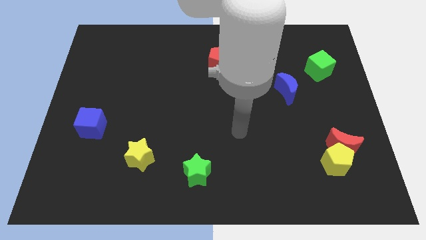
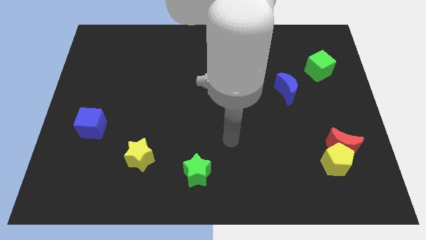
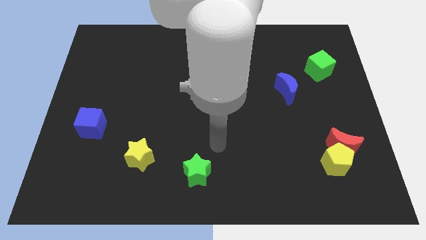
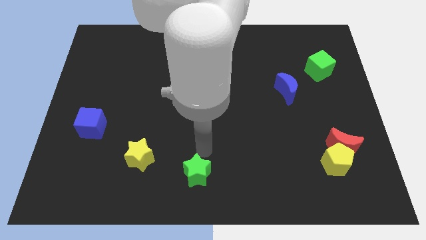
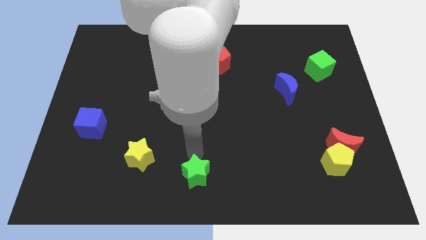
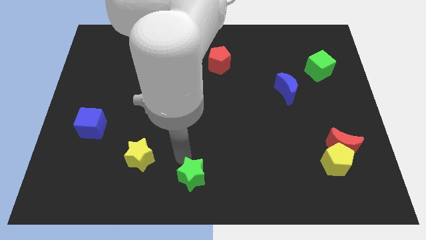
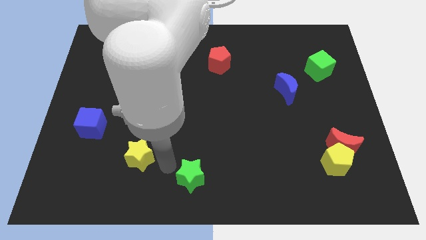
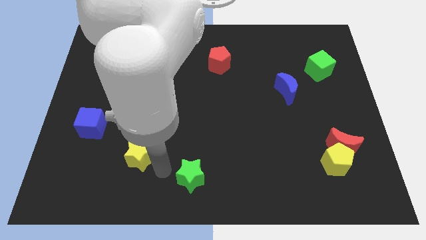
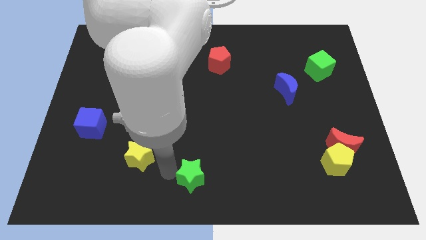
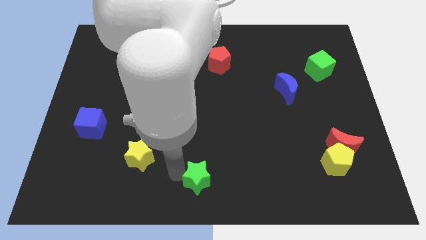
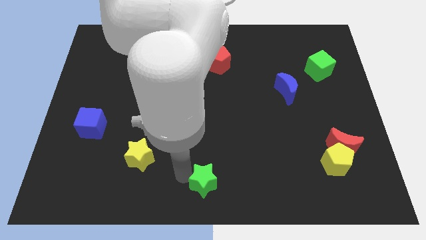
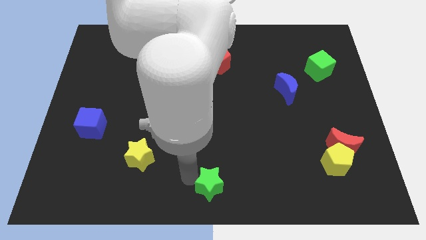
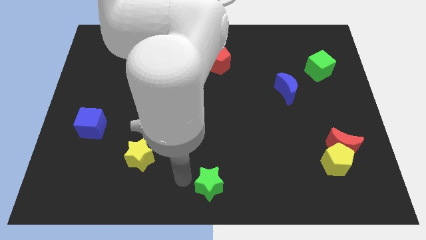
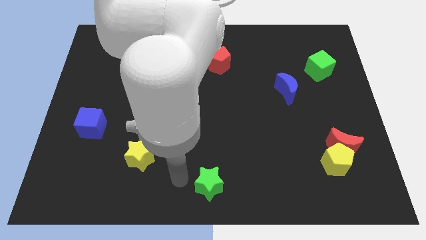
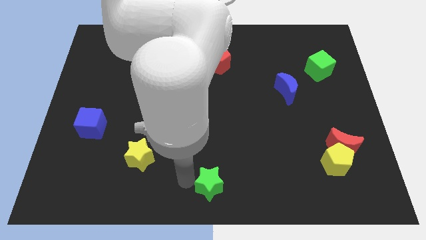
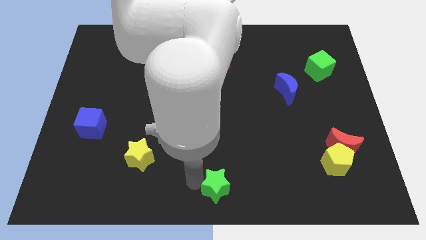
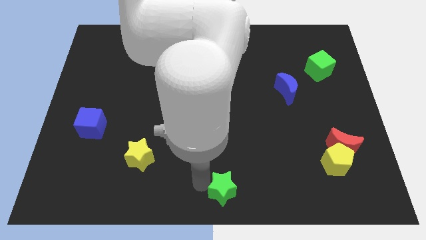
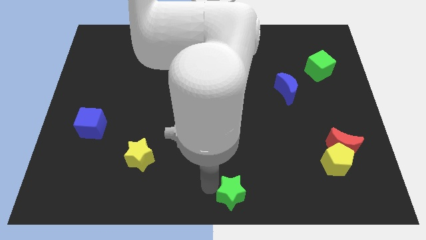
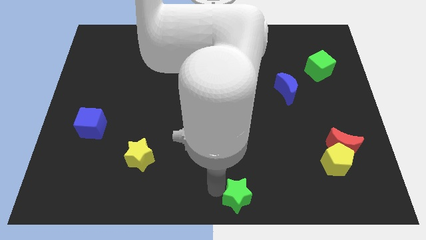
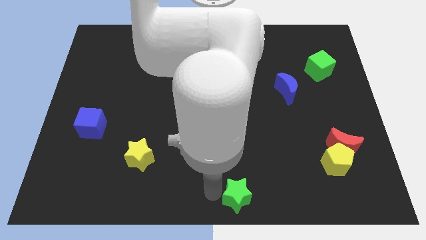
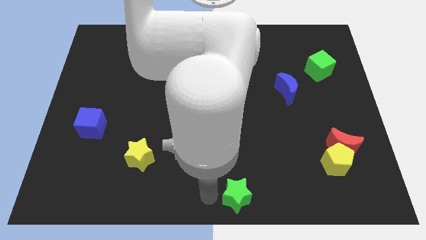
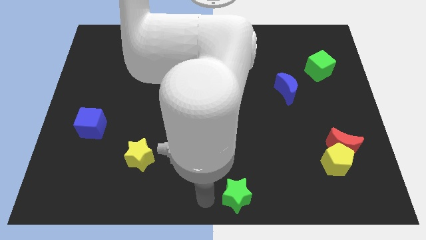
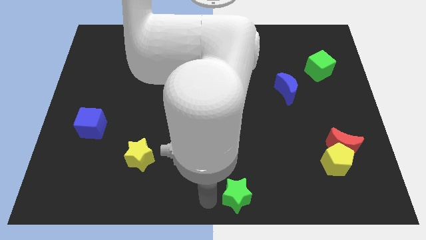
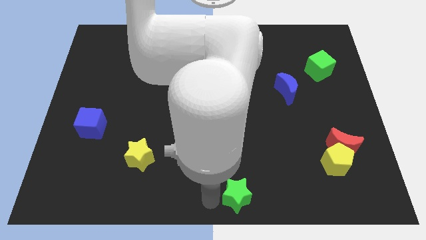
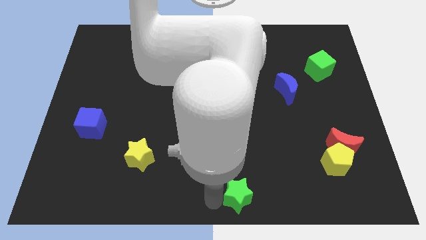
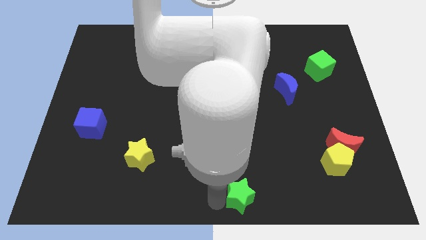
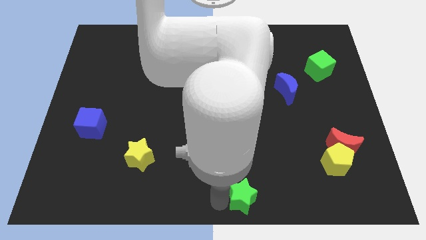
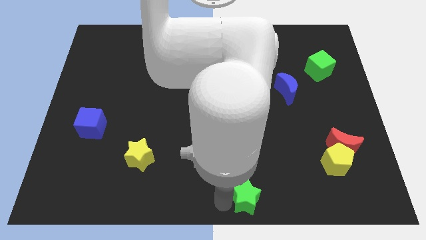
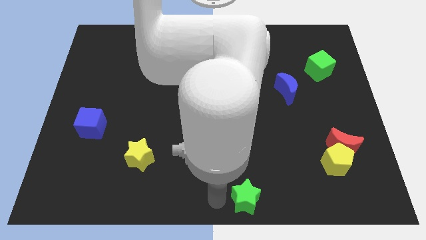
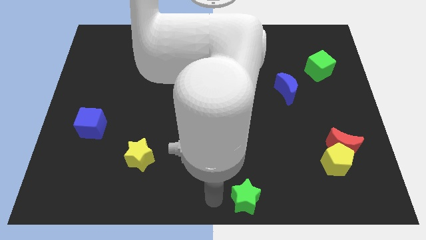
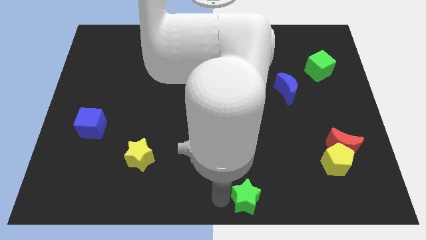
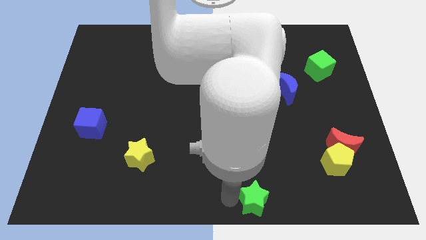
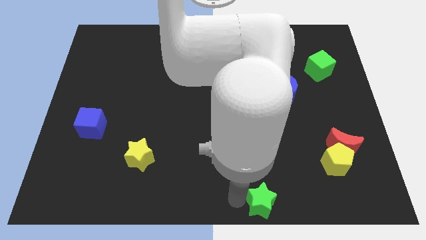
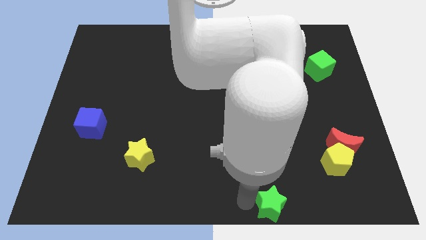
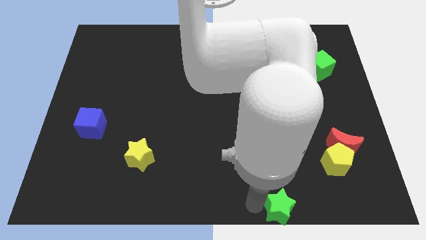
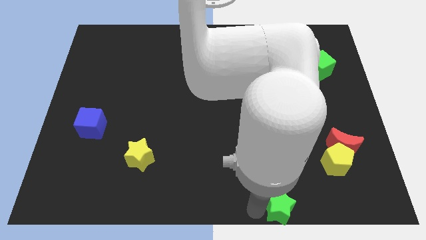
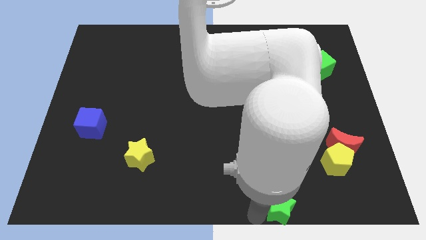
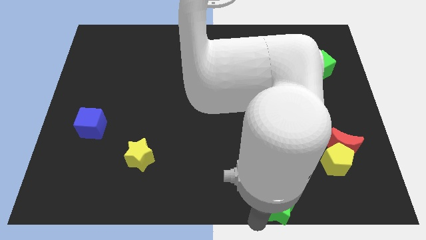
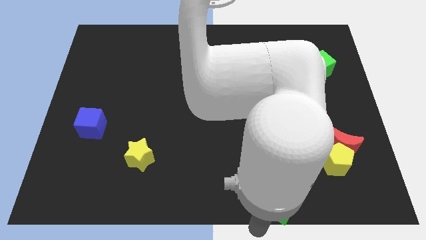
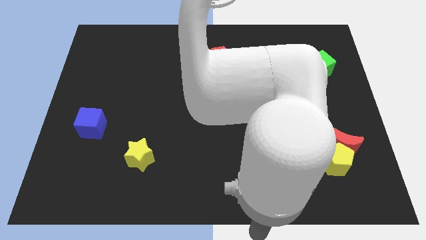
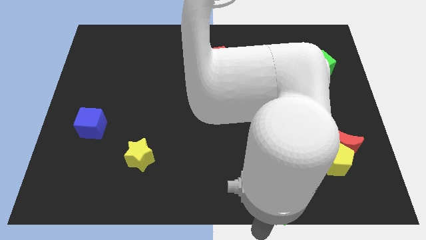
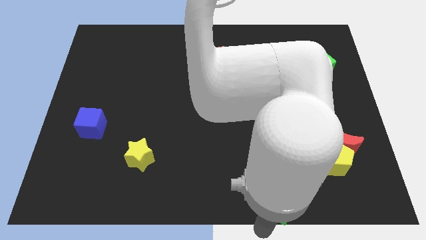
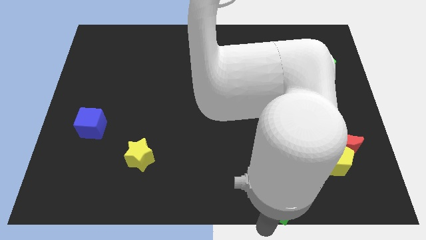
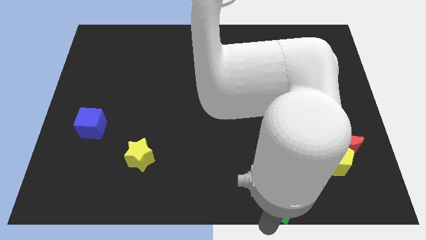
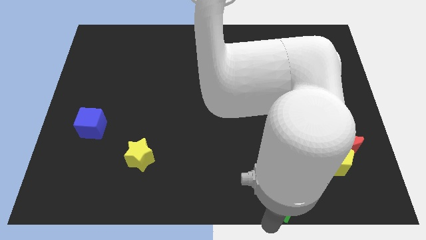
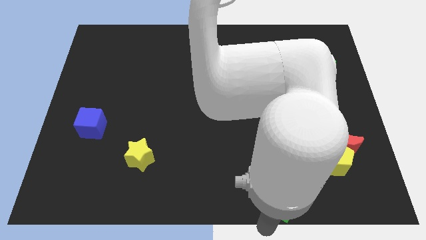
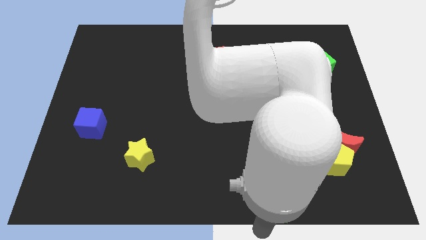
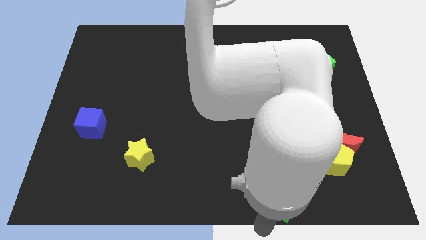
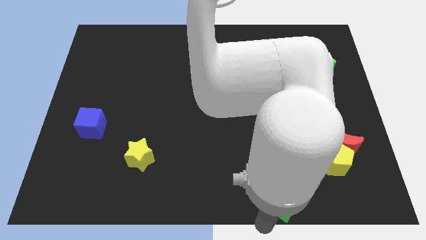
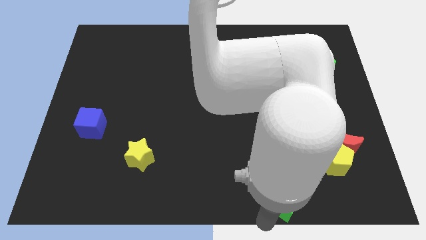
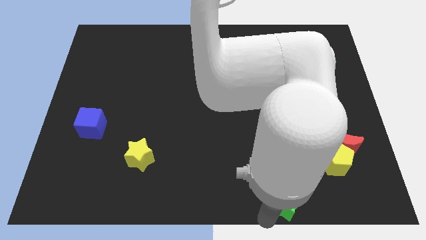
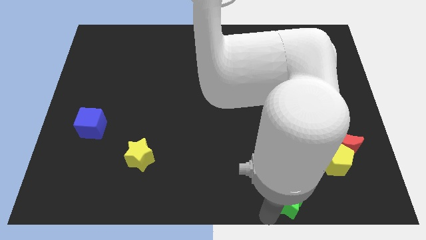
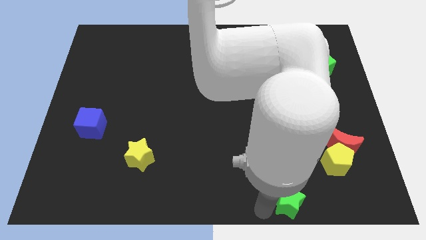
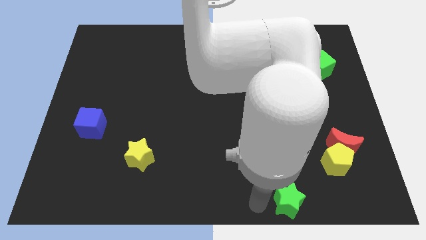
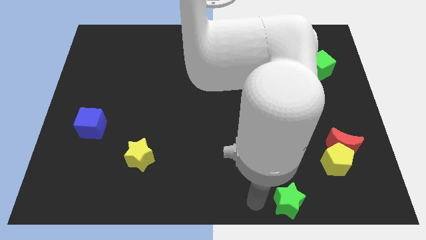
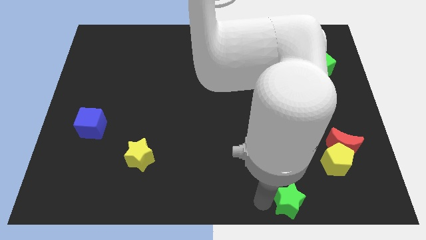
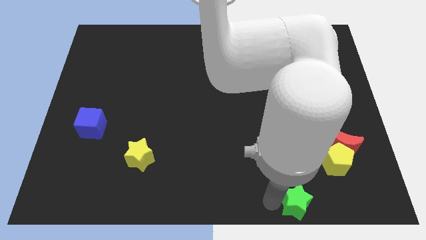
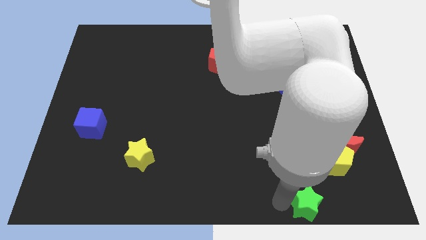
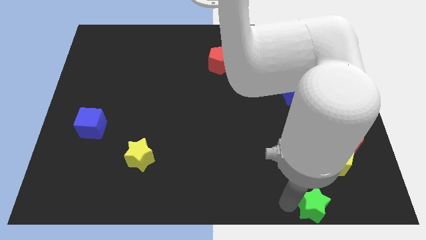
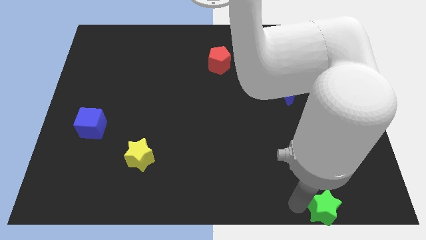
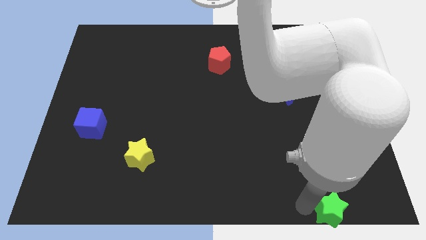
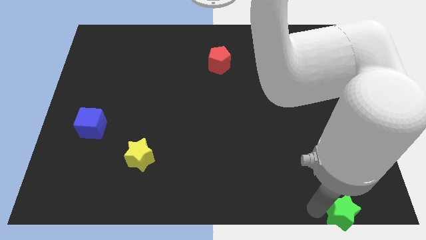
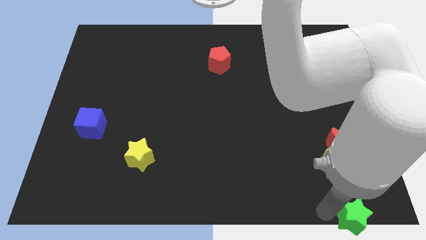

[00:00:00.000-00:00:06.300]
move the green star to the bottom right of the board

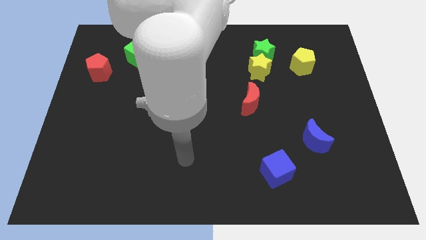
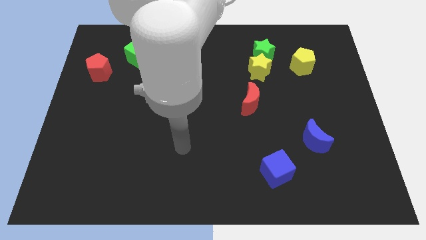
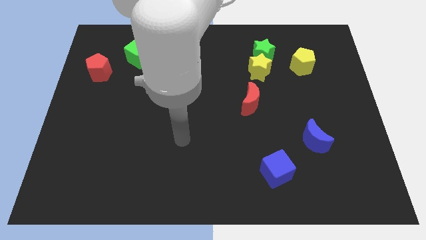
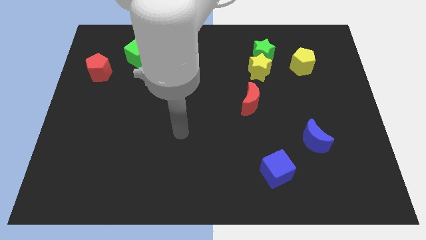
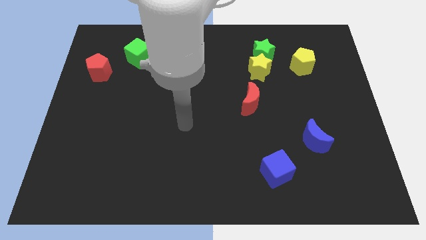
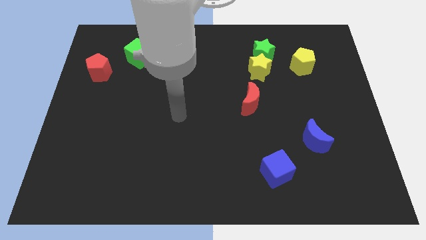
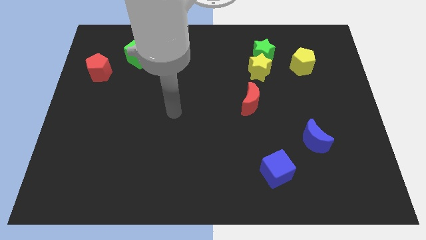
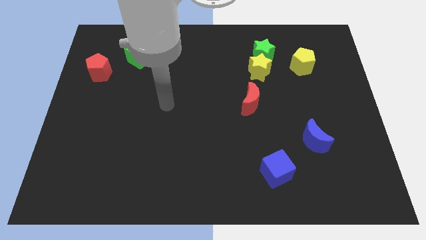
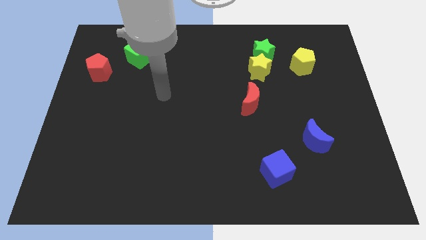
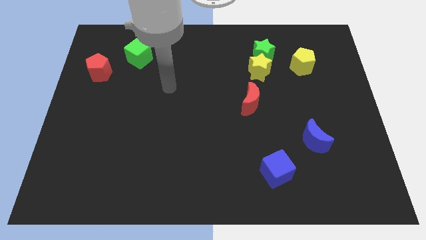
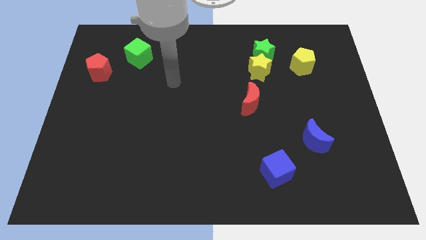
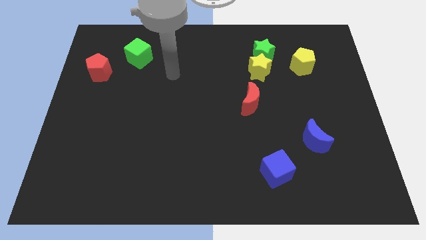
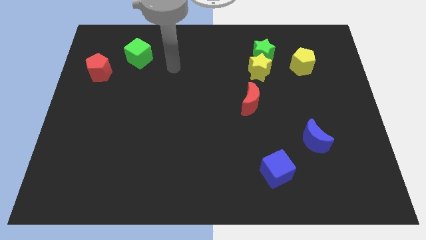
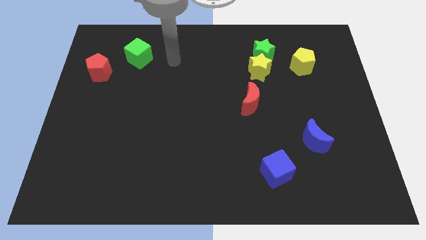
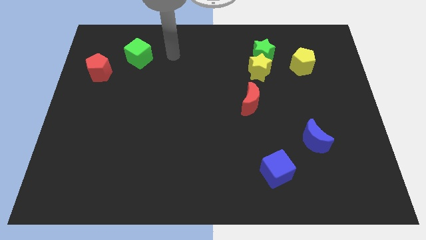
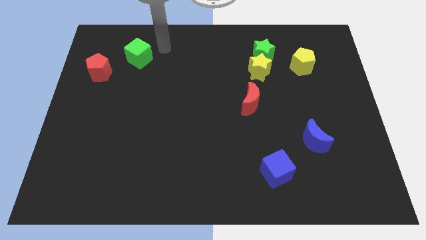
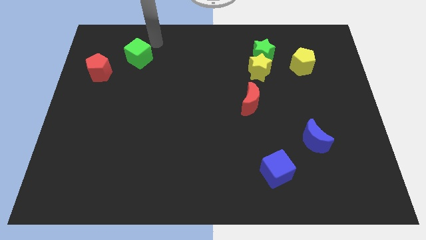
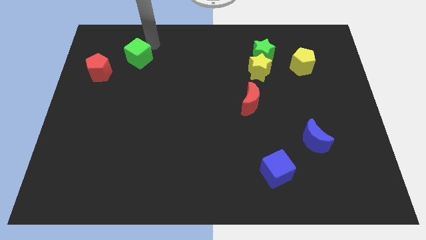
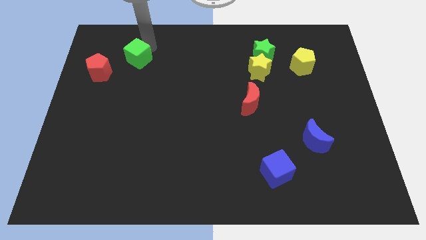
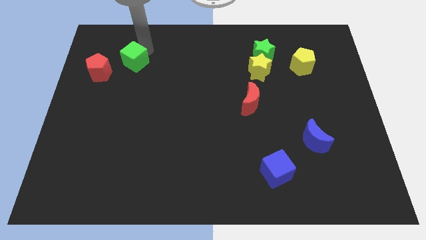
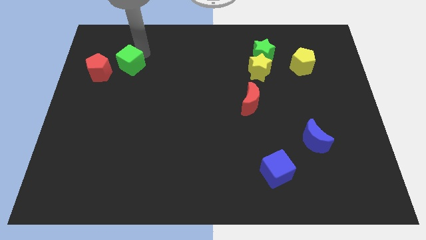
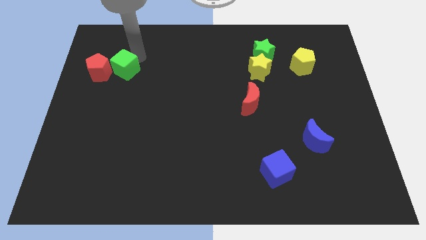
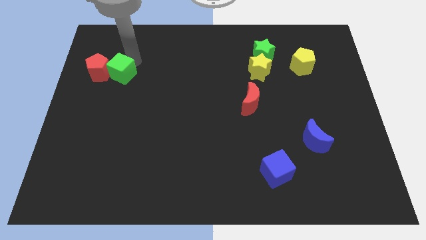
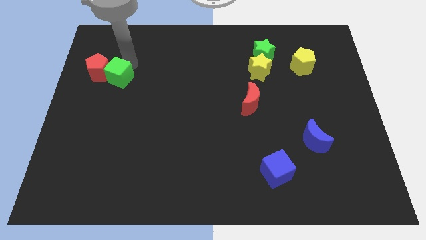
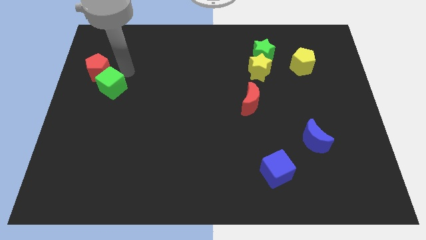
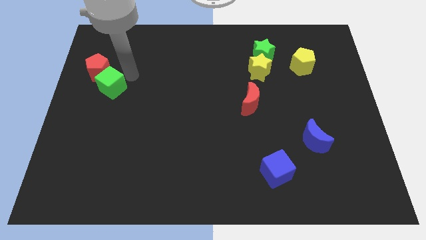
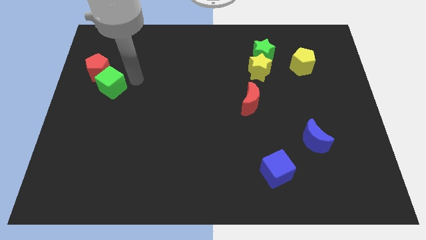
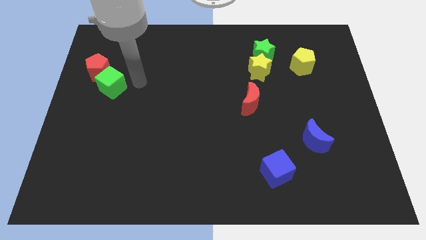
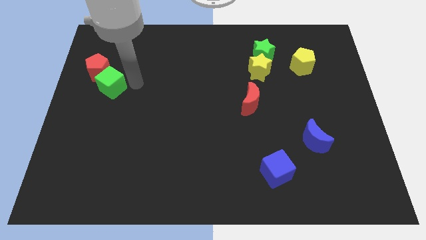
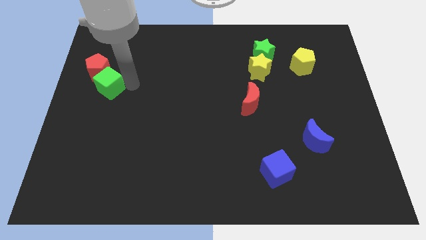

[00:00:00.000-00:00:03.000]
put the green cube to the left side of the board
